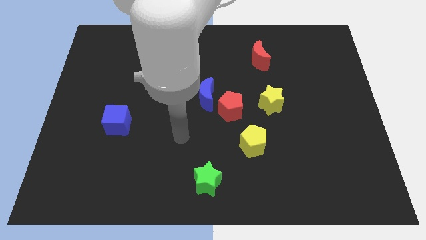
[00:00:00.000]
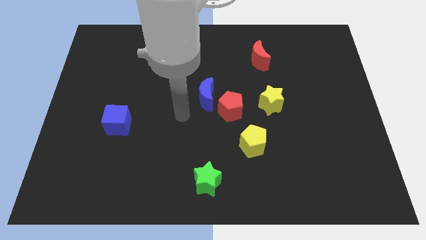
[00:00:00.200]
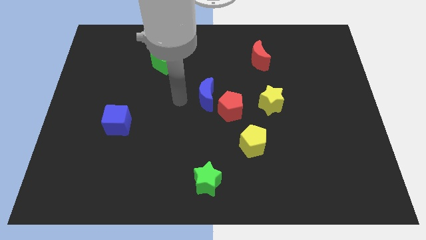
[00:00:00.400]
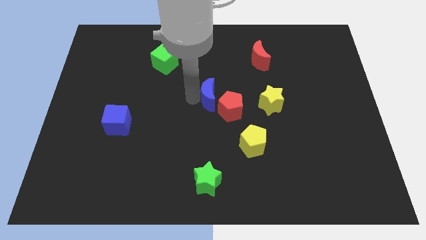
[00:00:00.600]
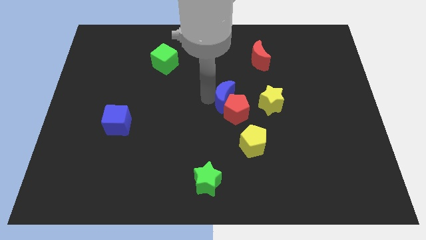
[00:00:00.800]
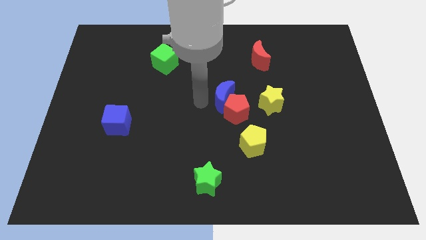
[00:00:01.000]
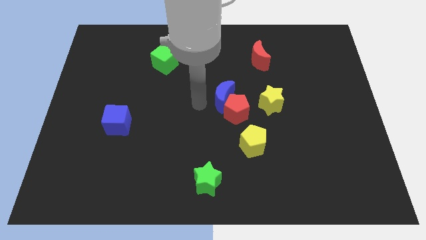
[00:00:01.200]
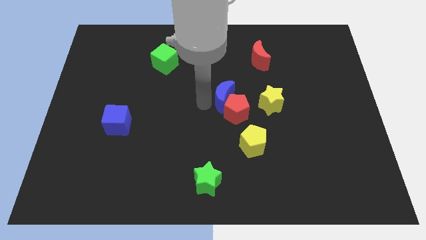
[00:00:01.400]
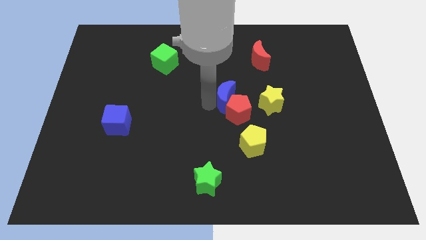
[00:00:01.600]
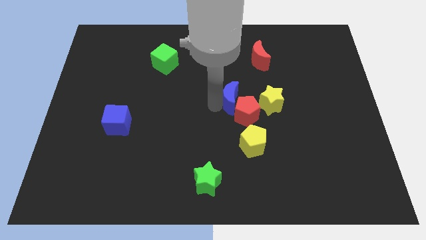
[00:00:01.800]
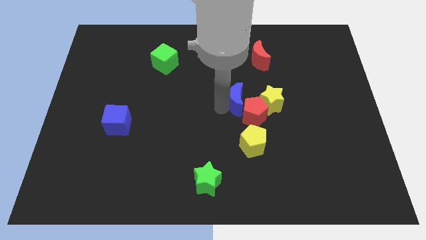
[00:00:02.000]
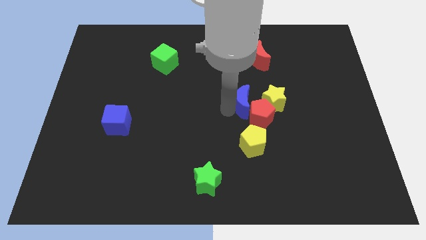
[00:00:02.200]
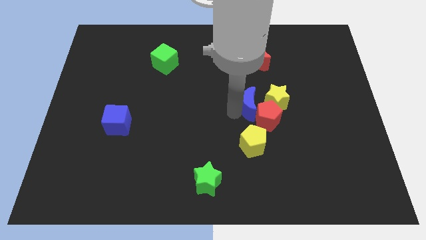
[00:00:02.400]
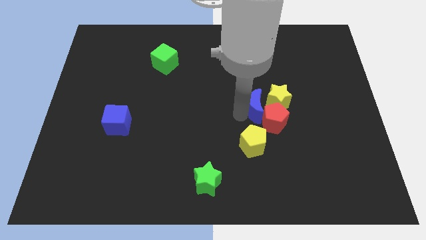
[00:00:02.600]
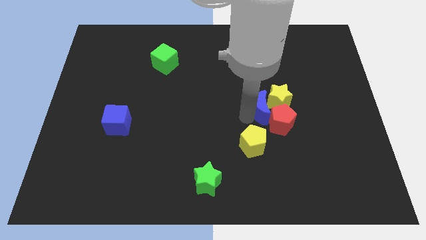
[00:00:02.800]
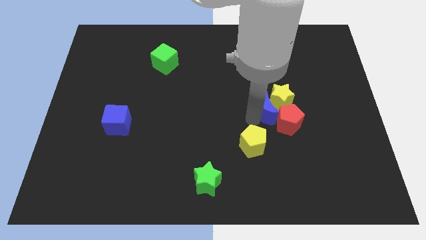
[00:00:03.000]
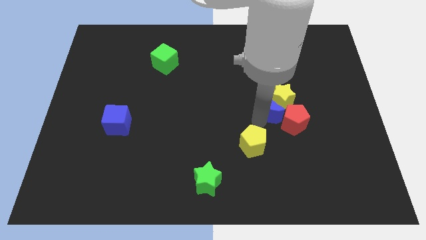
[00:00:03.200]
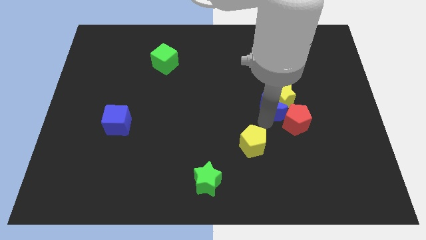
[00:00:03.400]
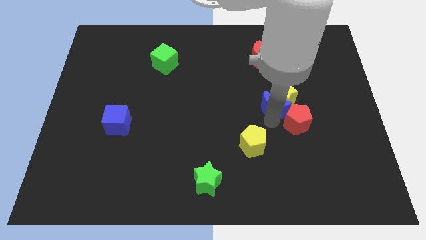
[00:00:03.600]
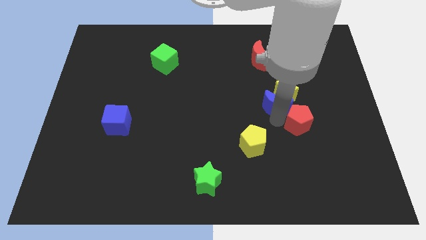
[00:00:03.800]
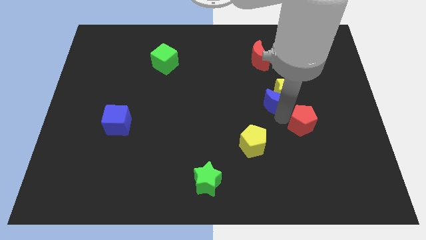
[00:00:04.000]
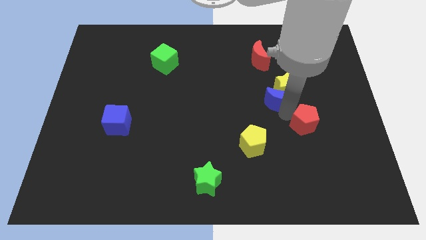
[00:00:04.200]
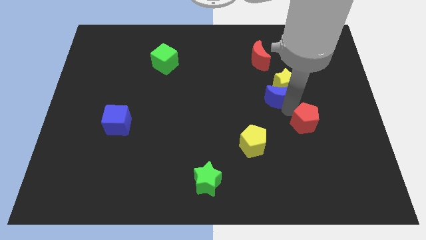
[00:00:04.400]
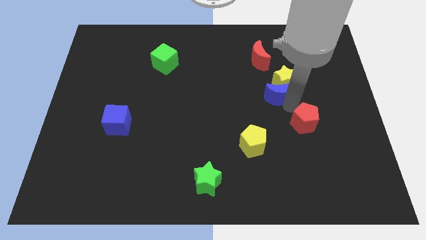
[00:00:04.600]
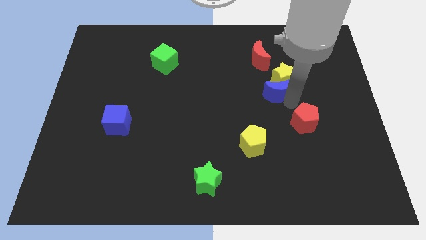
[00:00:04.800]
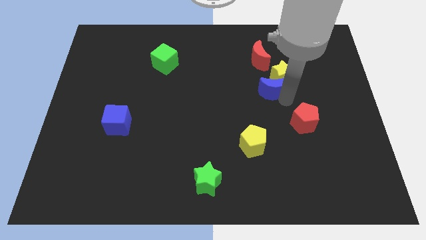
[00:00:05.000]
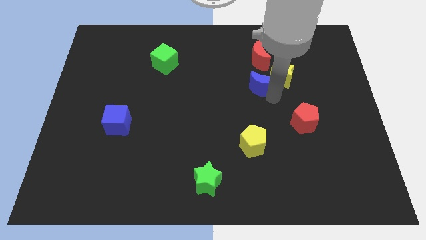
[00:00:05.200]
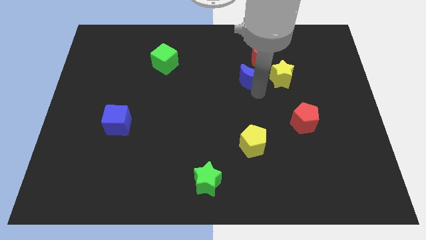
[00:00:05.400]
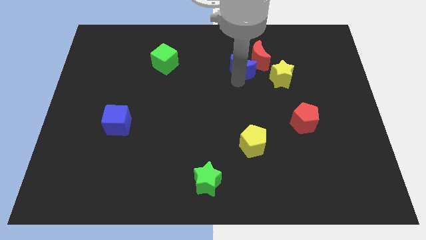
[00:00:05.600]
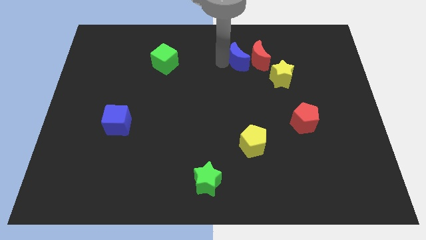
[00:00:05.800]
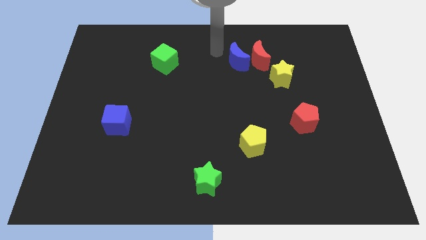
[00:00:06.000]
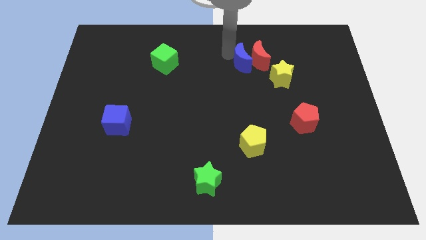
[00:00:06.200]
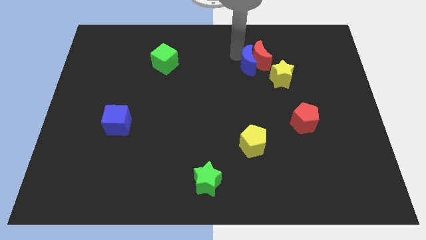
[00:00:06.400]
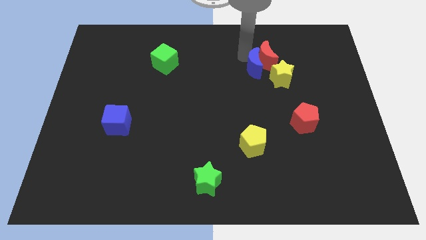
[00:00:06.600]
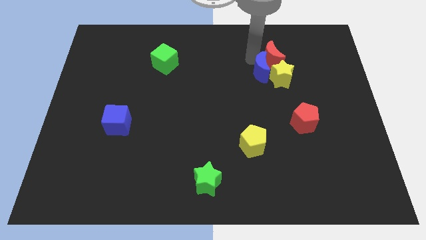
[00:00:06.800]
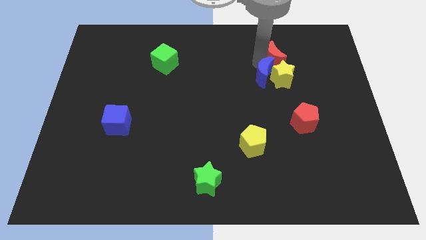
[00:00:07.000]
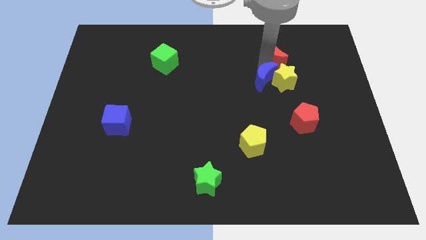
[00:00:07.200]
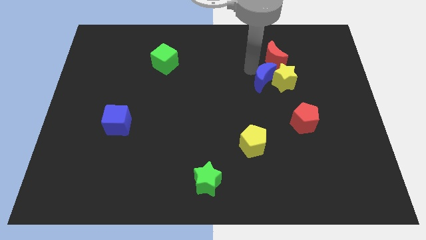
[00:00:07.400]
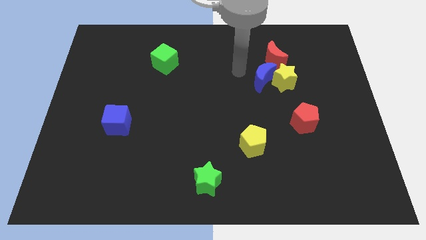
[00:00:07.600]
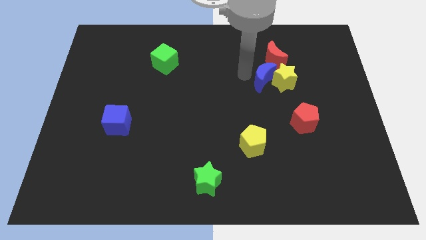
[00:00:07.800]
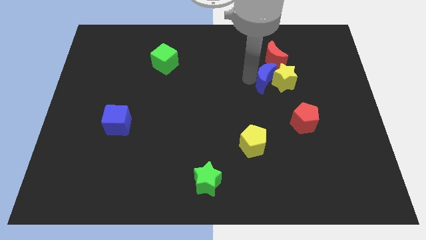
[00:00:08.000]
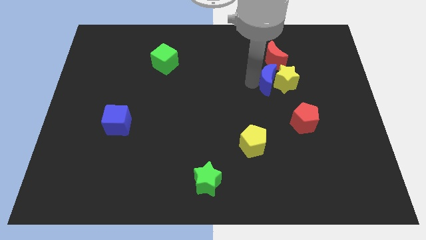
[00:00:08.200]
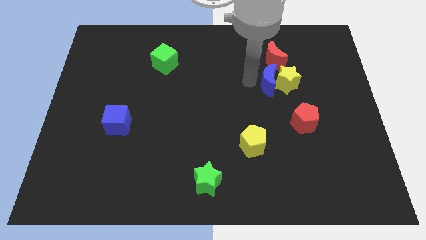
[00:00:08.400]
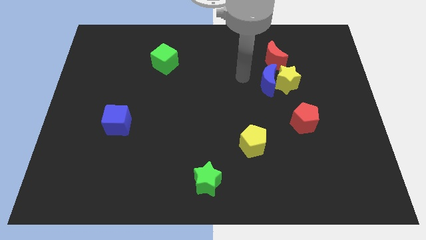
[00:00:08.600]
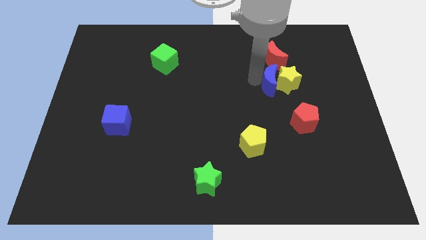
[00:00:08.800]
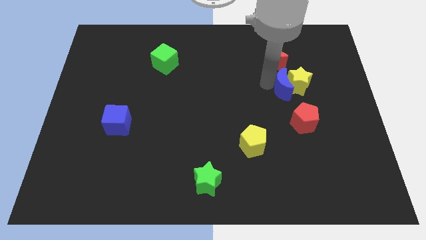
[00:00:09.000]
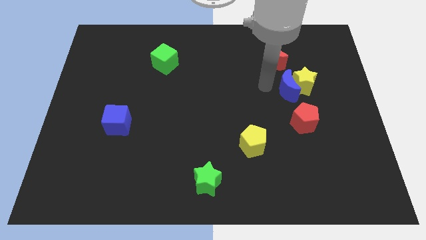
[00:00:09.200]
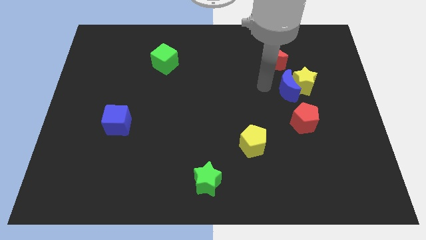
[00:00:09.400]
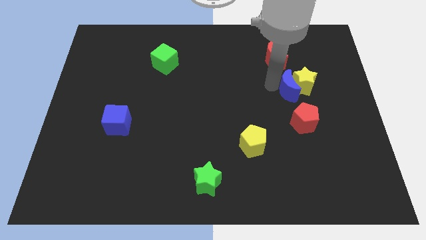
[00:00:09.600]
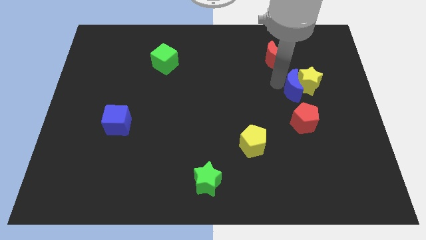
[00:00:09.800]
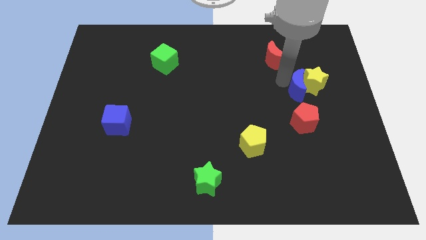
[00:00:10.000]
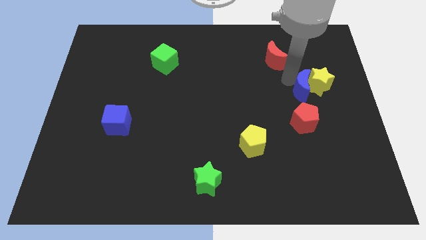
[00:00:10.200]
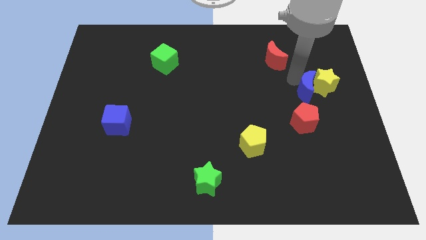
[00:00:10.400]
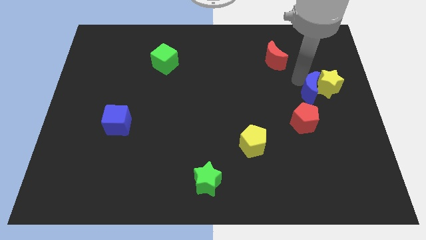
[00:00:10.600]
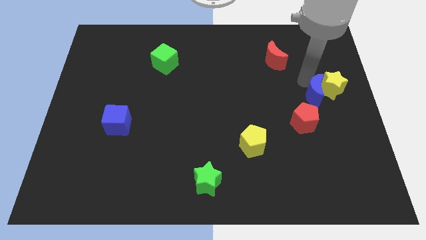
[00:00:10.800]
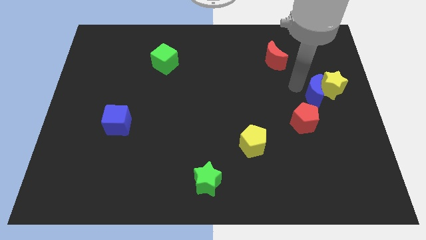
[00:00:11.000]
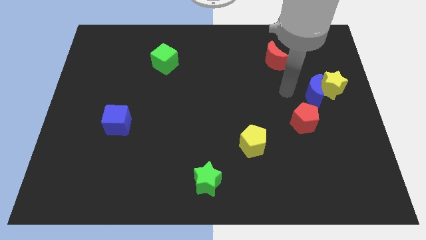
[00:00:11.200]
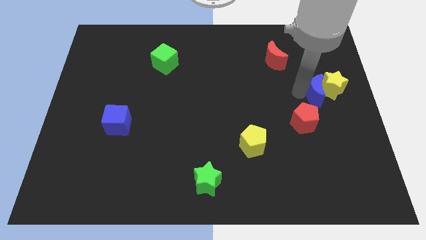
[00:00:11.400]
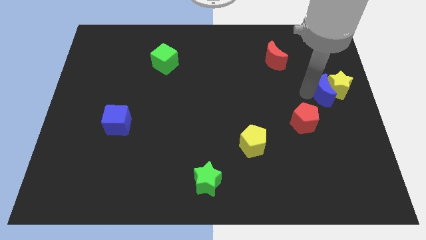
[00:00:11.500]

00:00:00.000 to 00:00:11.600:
move the blue moon to the center right

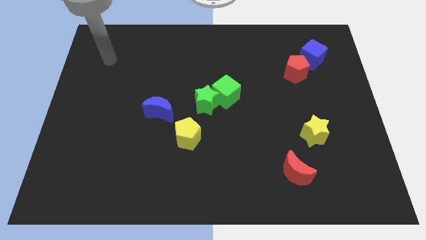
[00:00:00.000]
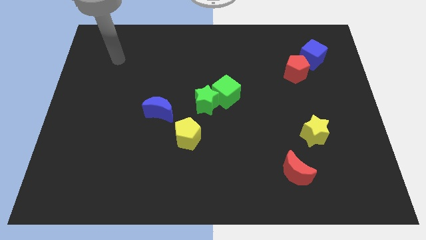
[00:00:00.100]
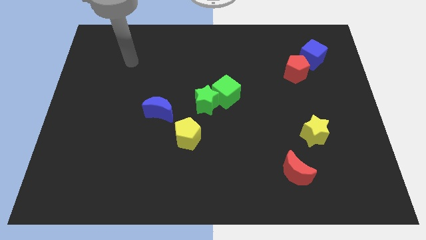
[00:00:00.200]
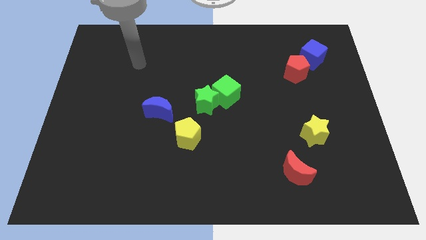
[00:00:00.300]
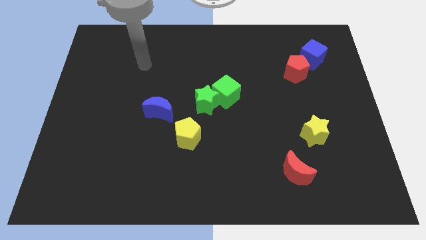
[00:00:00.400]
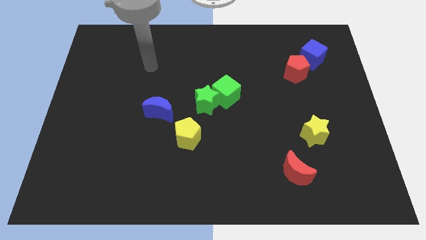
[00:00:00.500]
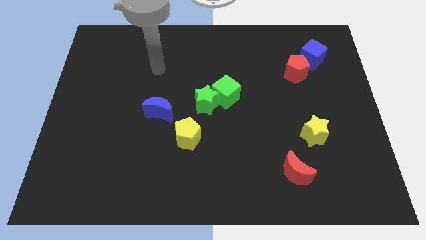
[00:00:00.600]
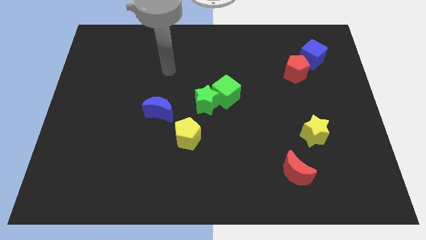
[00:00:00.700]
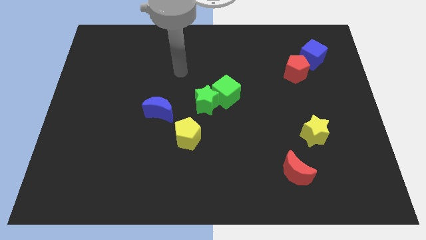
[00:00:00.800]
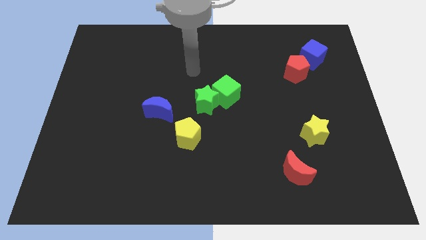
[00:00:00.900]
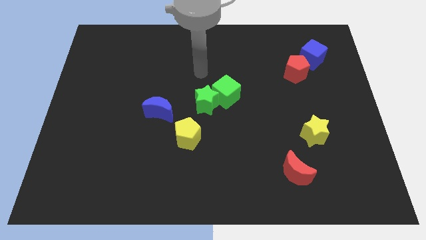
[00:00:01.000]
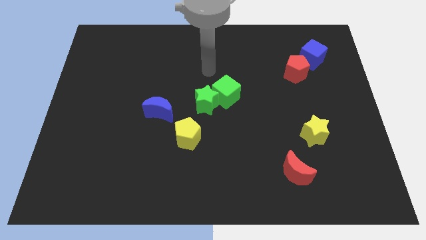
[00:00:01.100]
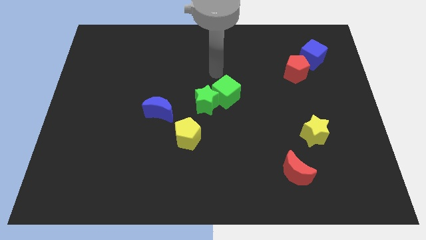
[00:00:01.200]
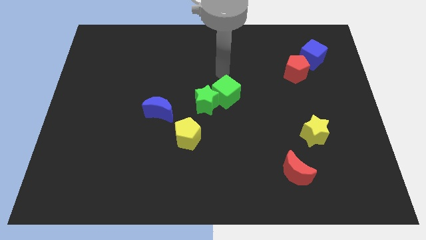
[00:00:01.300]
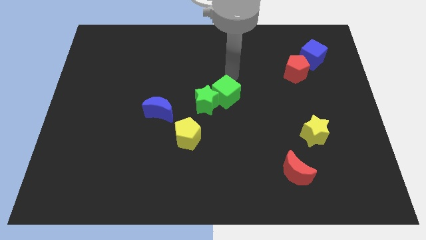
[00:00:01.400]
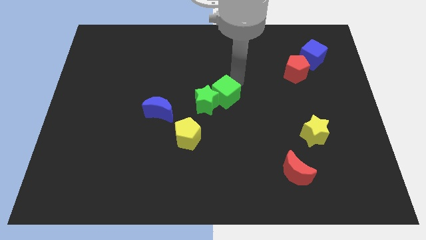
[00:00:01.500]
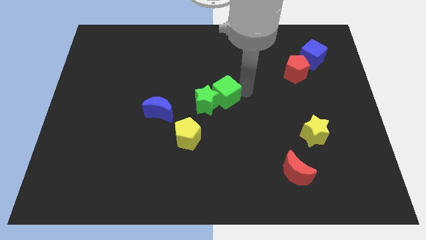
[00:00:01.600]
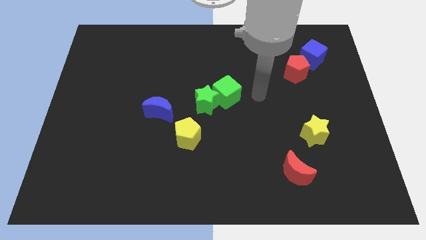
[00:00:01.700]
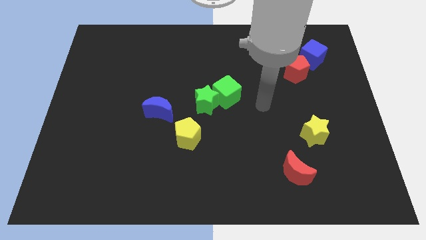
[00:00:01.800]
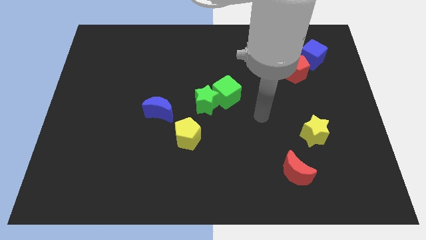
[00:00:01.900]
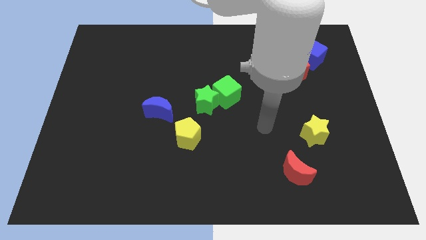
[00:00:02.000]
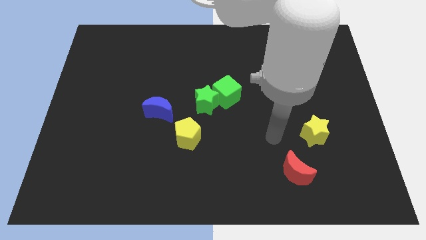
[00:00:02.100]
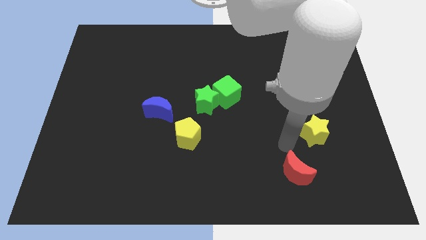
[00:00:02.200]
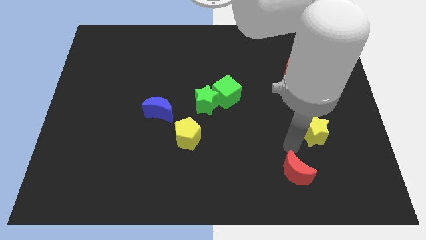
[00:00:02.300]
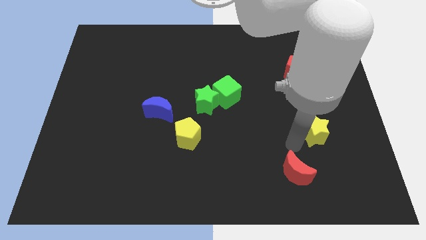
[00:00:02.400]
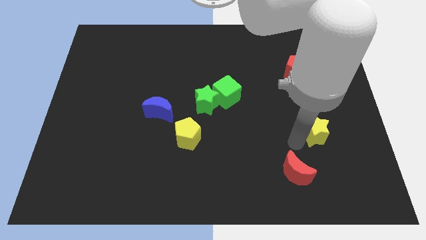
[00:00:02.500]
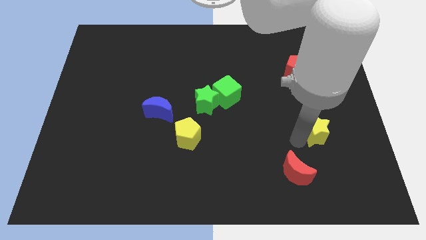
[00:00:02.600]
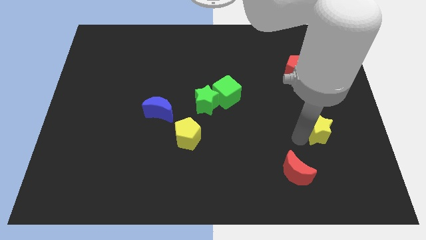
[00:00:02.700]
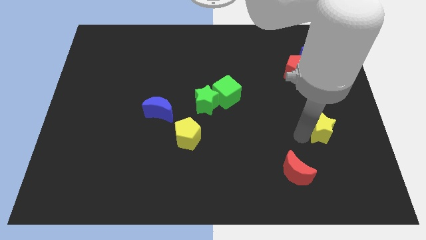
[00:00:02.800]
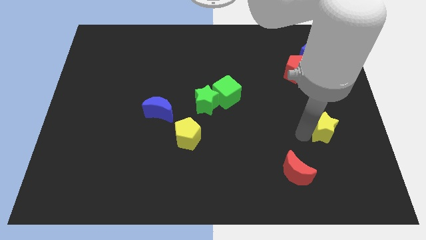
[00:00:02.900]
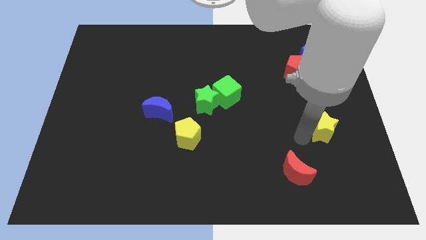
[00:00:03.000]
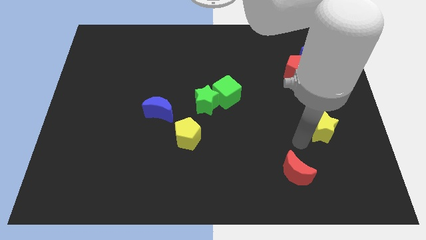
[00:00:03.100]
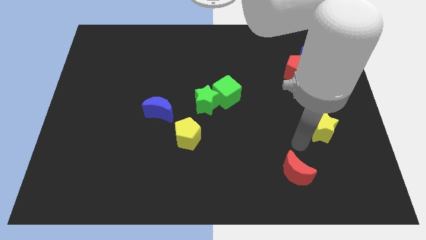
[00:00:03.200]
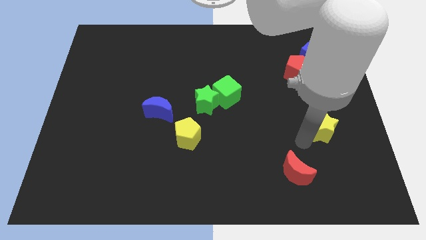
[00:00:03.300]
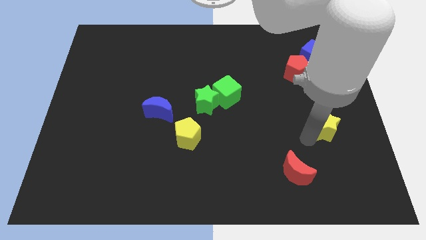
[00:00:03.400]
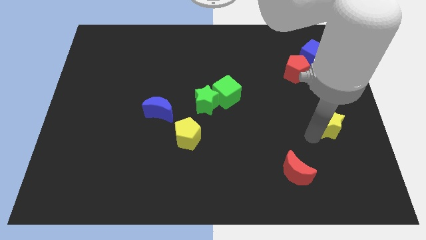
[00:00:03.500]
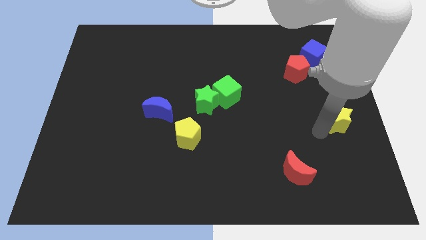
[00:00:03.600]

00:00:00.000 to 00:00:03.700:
push the yellow star to the right side
